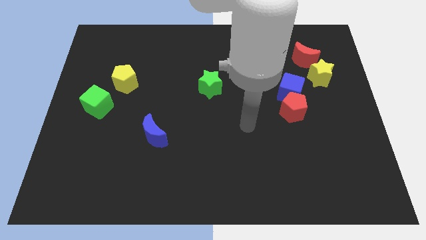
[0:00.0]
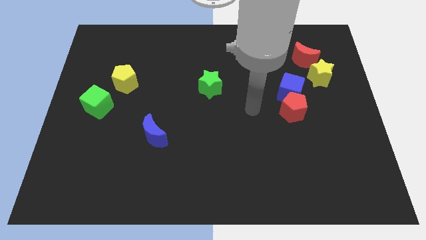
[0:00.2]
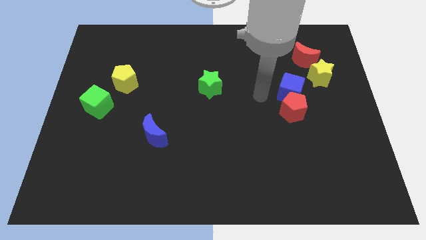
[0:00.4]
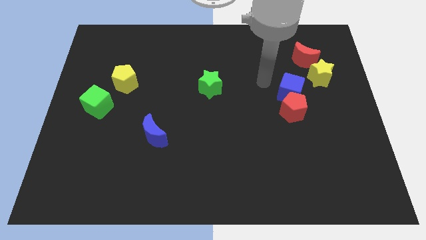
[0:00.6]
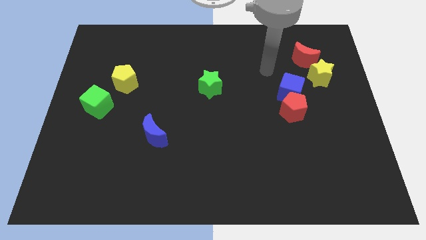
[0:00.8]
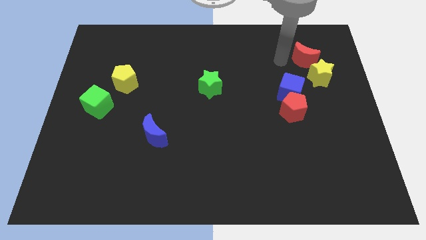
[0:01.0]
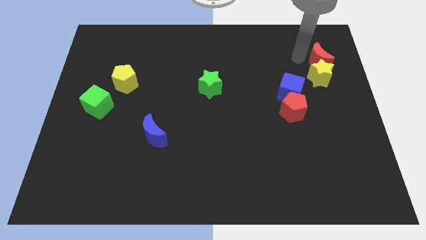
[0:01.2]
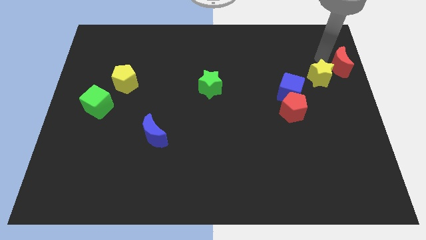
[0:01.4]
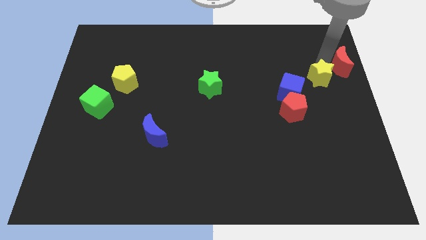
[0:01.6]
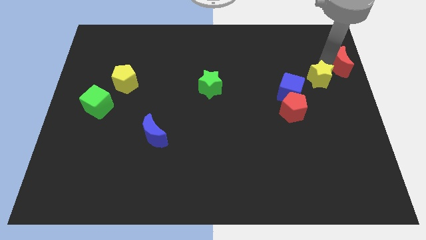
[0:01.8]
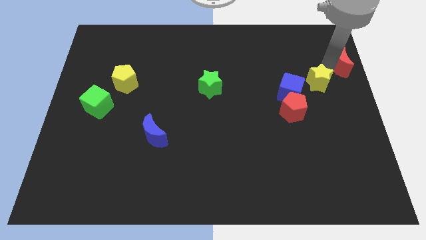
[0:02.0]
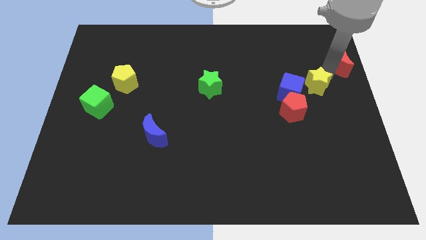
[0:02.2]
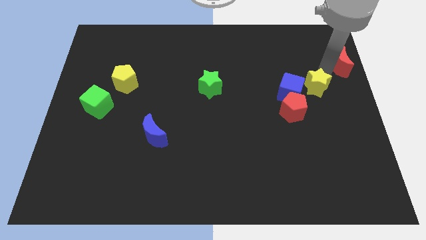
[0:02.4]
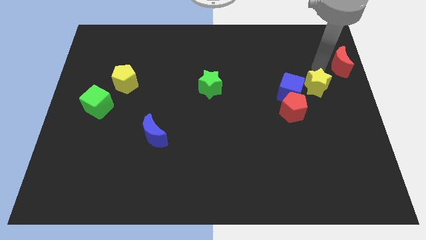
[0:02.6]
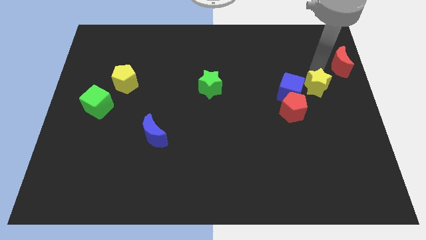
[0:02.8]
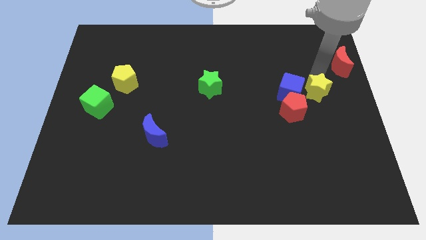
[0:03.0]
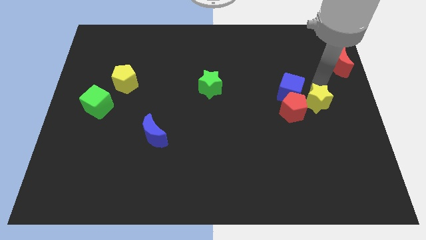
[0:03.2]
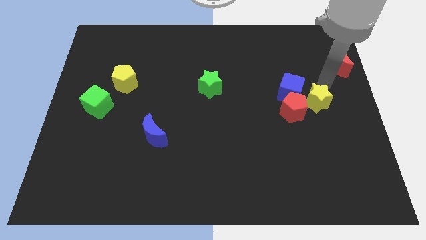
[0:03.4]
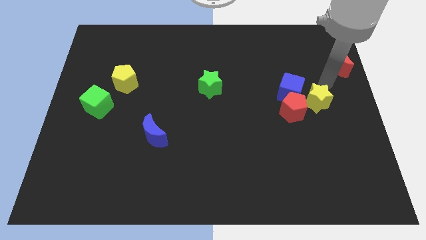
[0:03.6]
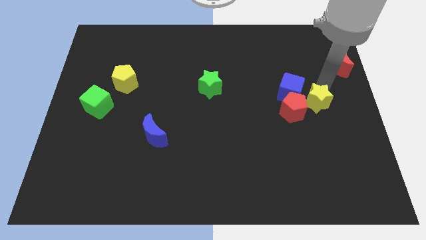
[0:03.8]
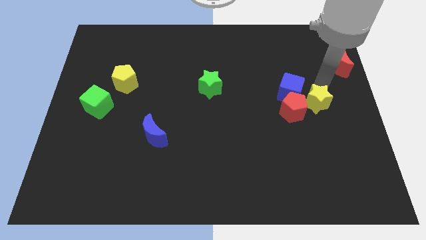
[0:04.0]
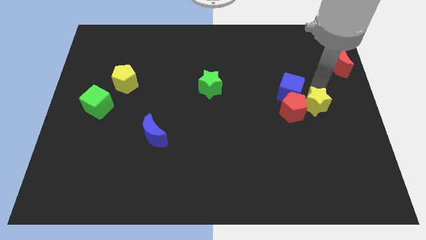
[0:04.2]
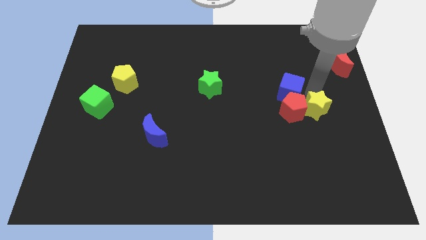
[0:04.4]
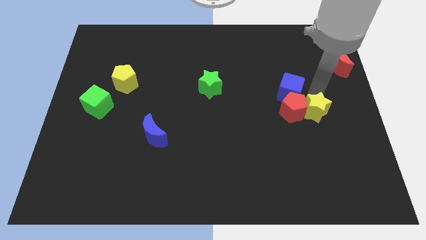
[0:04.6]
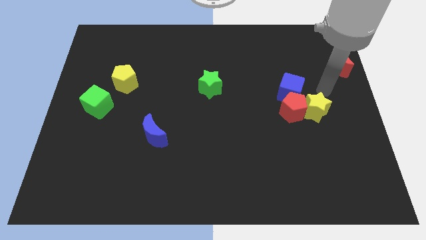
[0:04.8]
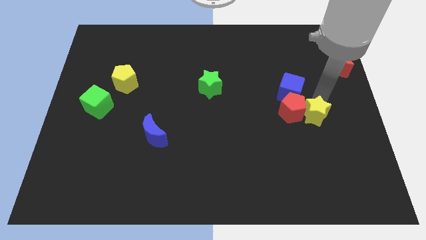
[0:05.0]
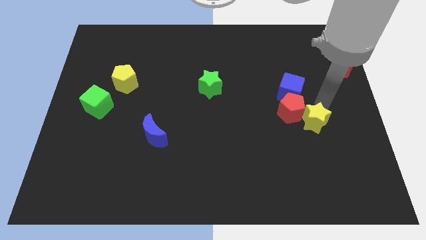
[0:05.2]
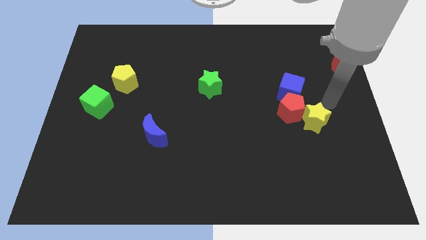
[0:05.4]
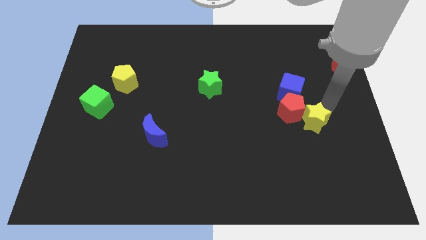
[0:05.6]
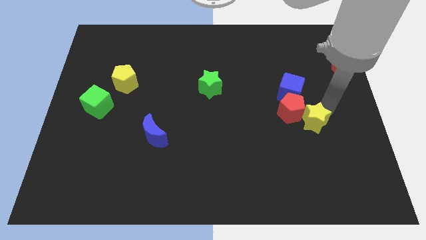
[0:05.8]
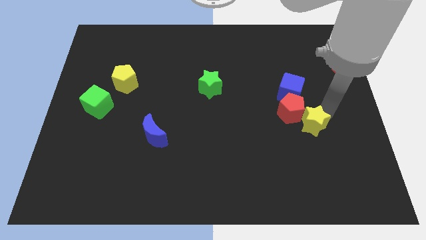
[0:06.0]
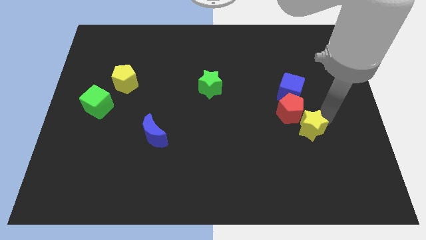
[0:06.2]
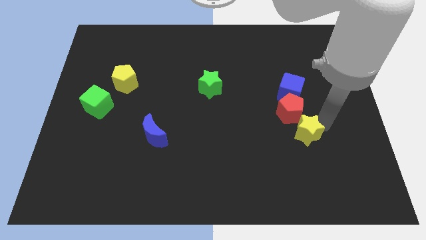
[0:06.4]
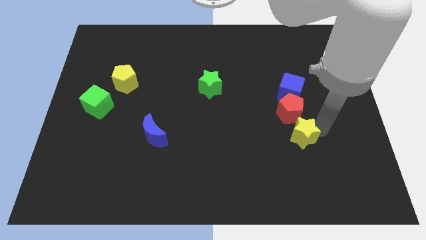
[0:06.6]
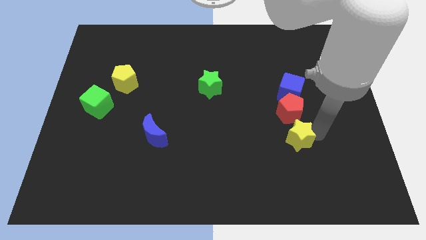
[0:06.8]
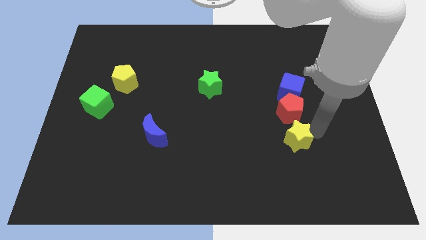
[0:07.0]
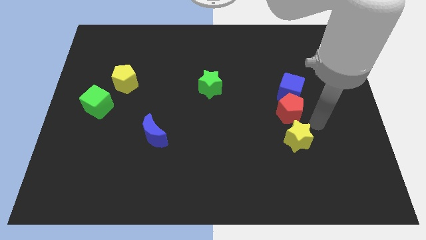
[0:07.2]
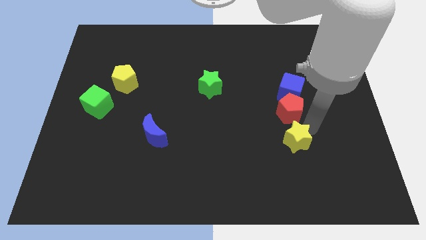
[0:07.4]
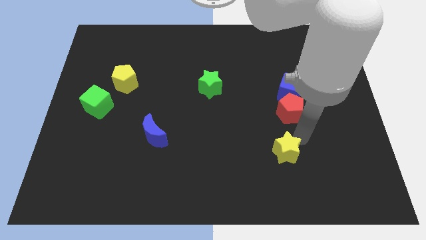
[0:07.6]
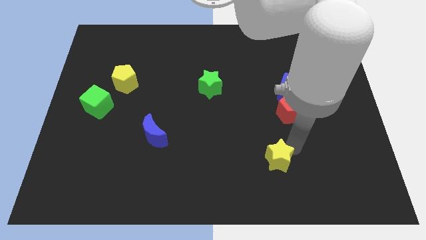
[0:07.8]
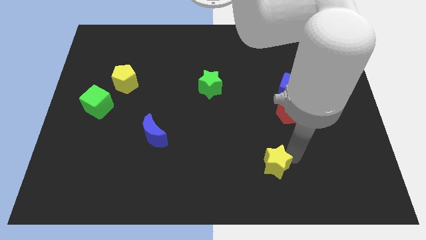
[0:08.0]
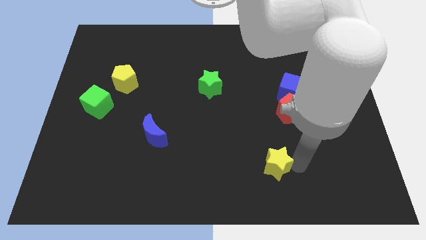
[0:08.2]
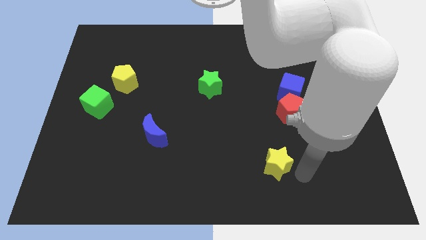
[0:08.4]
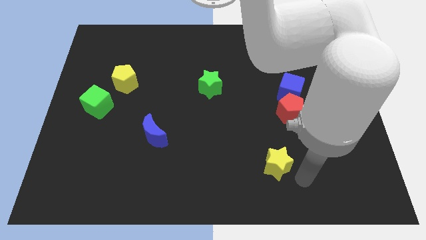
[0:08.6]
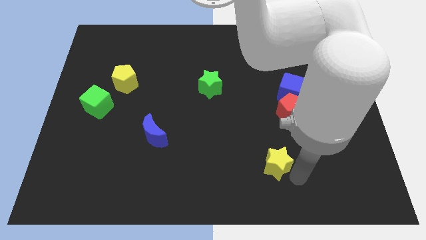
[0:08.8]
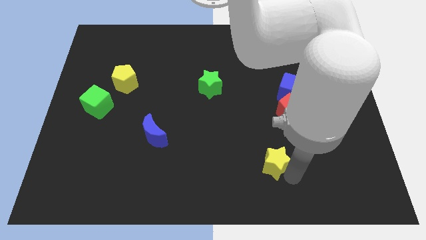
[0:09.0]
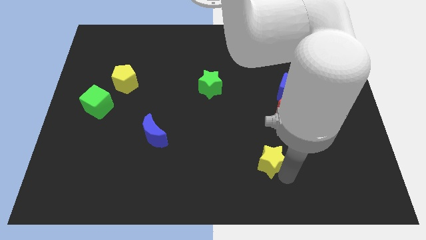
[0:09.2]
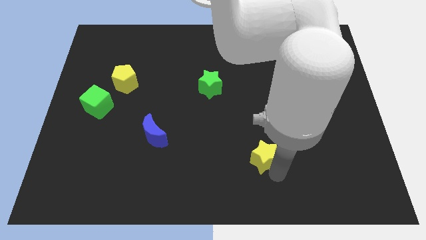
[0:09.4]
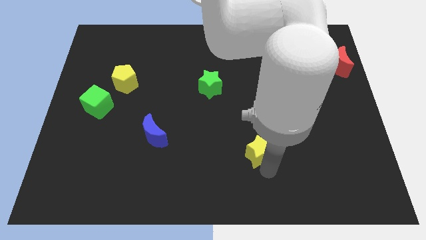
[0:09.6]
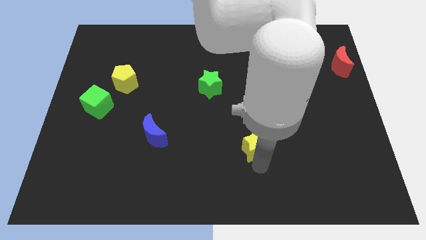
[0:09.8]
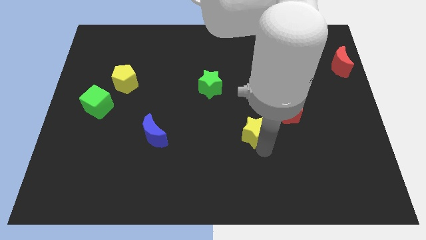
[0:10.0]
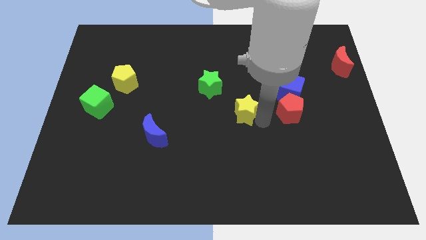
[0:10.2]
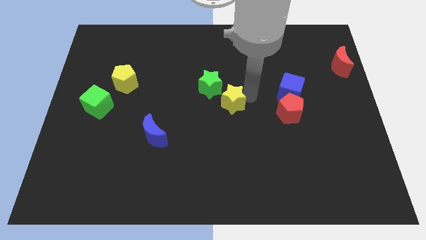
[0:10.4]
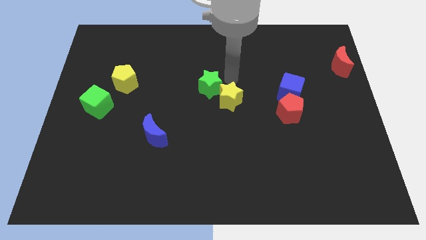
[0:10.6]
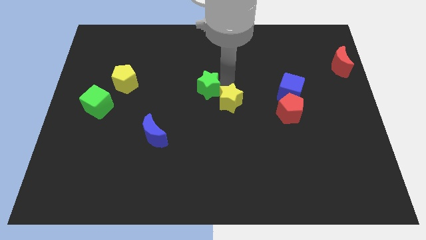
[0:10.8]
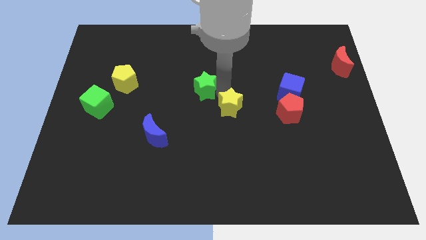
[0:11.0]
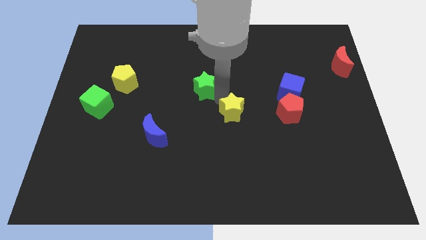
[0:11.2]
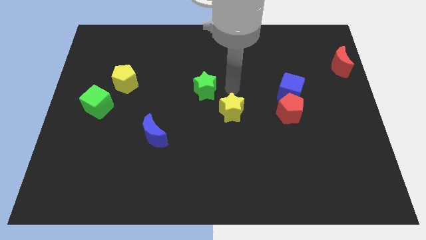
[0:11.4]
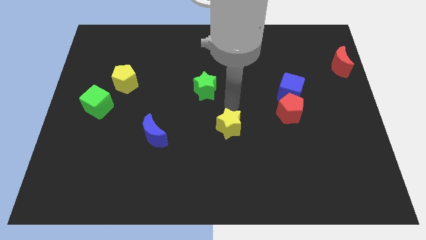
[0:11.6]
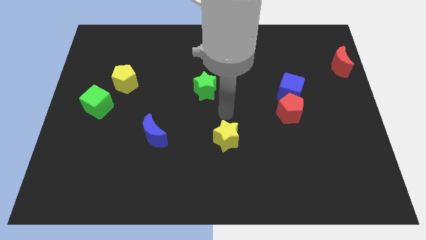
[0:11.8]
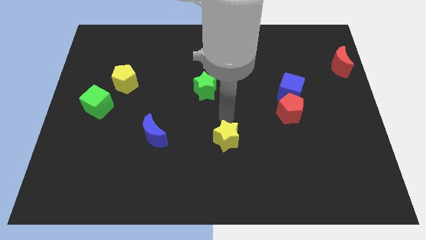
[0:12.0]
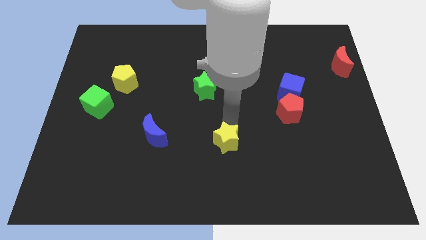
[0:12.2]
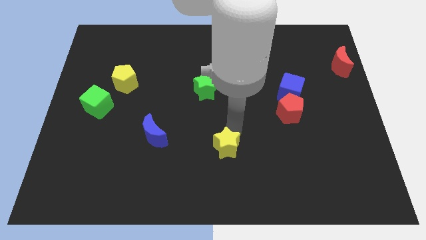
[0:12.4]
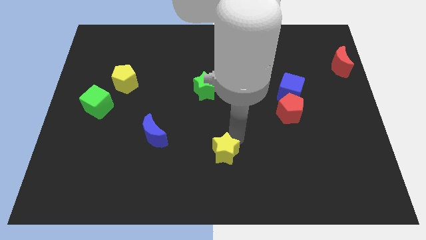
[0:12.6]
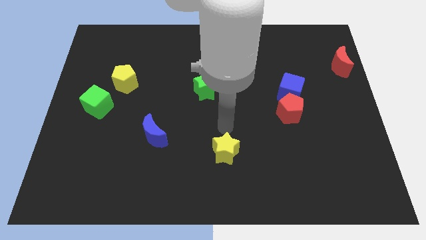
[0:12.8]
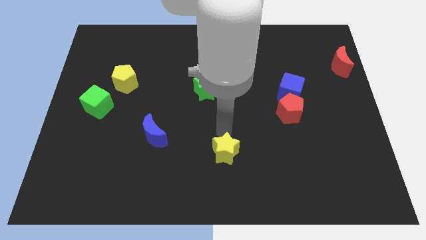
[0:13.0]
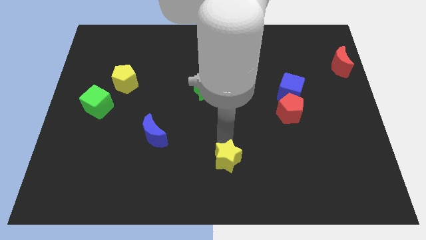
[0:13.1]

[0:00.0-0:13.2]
put the yellow star to the bottom

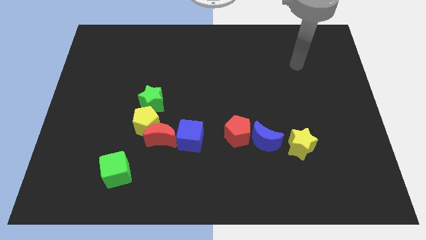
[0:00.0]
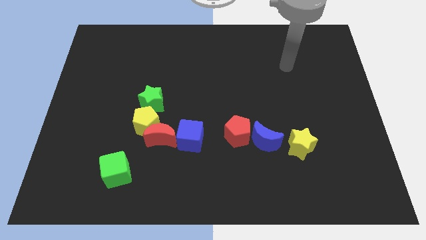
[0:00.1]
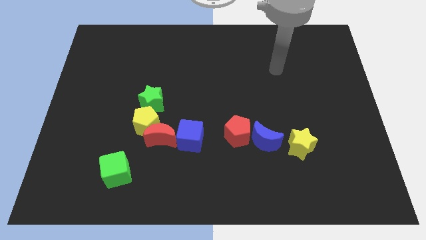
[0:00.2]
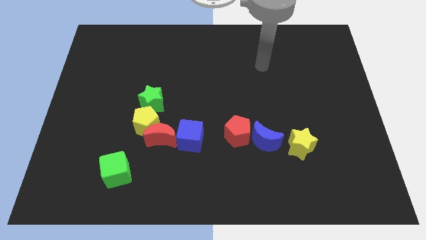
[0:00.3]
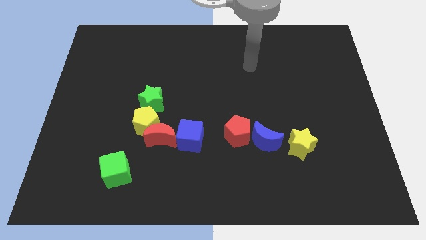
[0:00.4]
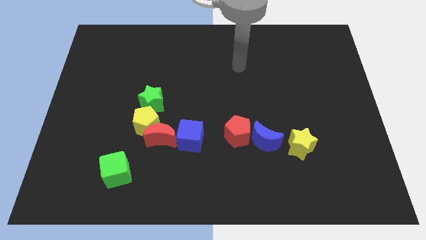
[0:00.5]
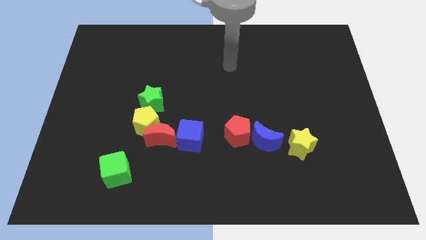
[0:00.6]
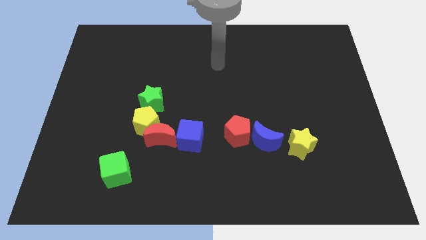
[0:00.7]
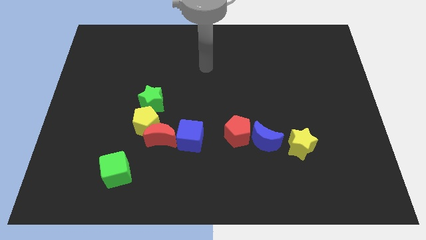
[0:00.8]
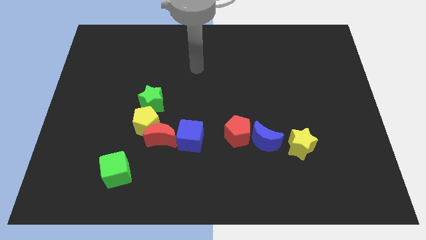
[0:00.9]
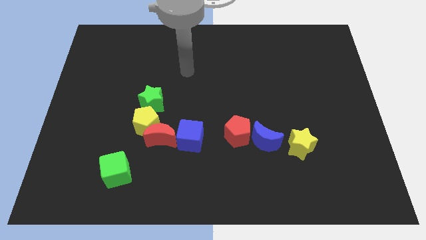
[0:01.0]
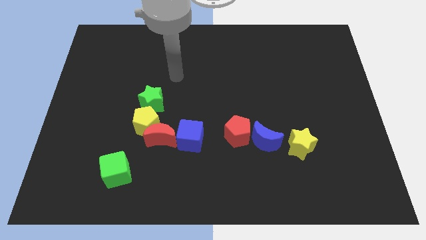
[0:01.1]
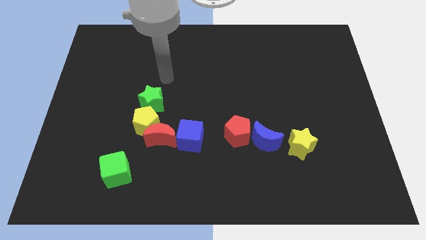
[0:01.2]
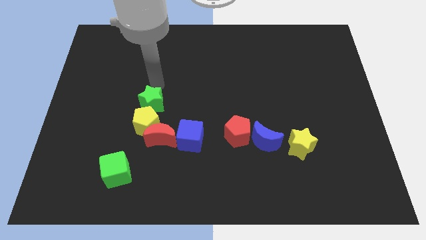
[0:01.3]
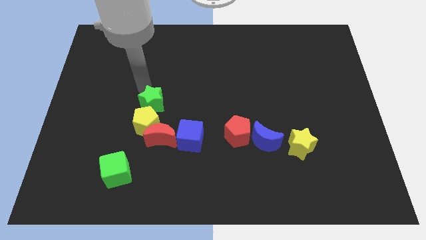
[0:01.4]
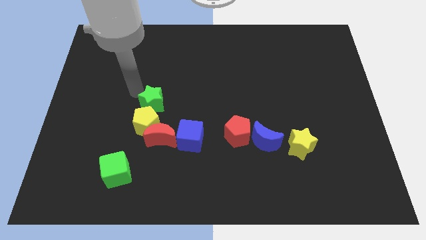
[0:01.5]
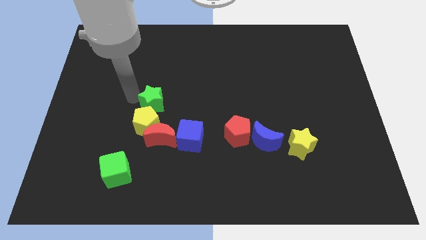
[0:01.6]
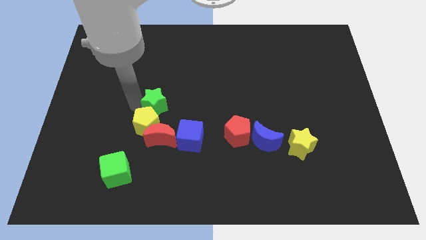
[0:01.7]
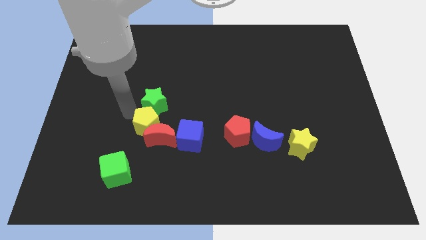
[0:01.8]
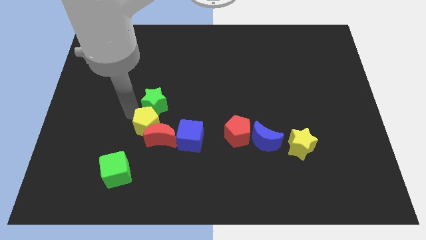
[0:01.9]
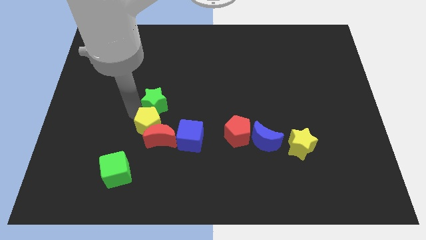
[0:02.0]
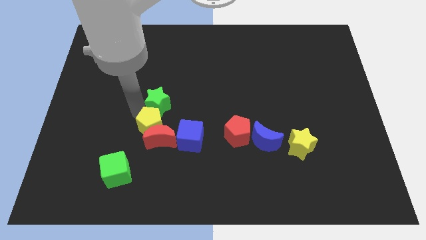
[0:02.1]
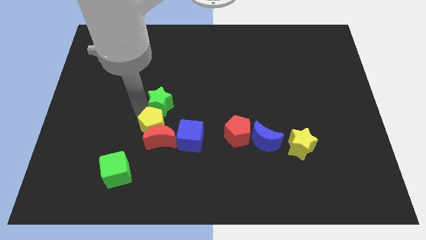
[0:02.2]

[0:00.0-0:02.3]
move the green star to the middle
